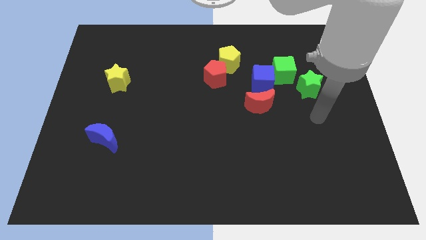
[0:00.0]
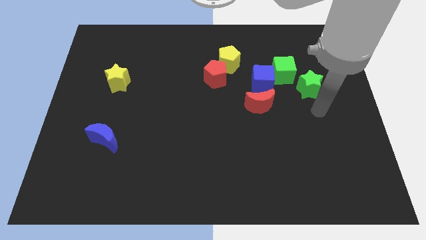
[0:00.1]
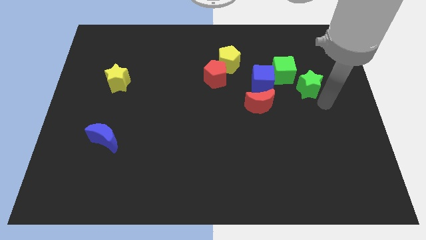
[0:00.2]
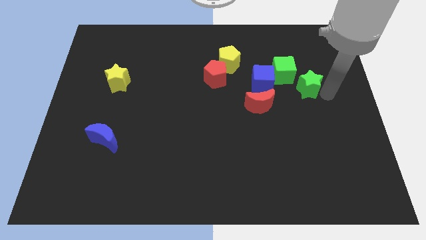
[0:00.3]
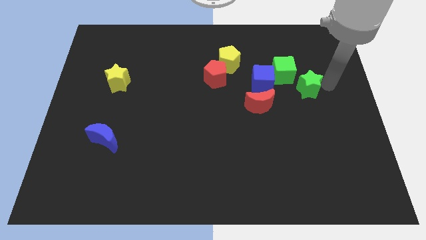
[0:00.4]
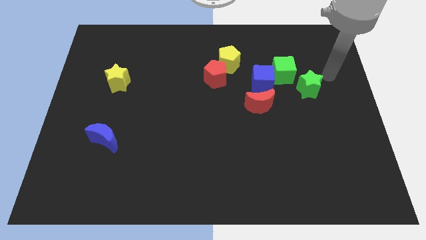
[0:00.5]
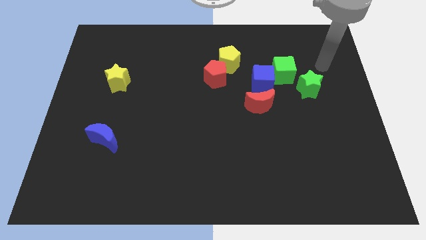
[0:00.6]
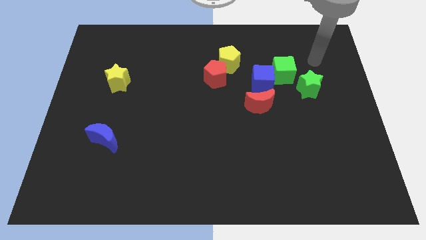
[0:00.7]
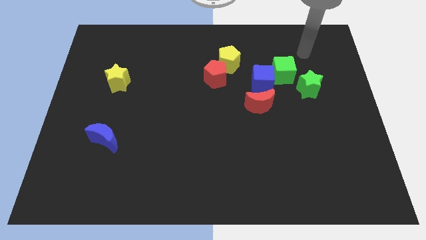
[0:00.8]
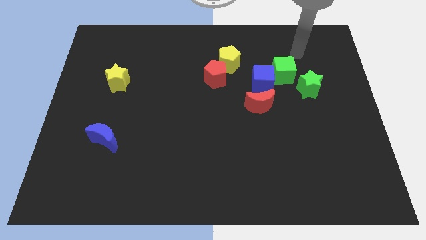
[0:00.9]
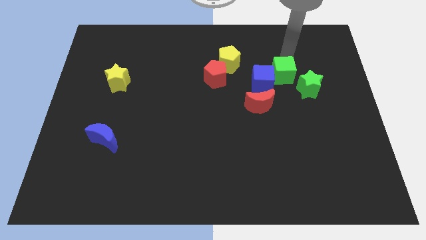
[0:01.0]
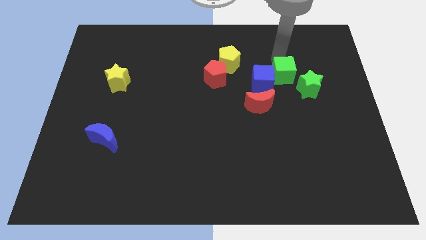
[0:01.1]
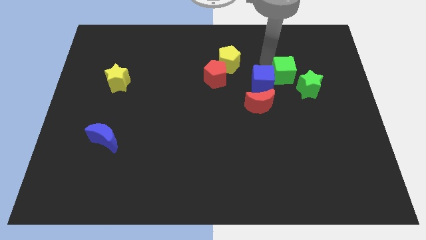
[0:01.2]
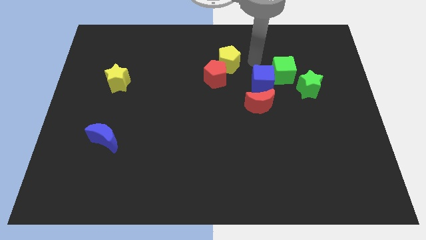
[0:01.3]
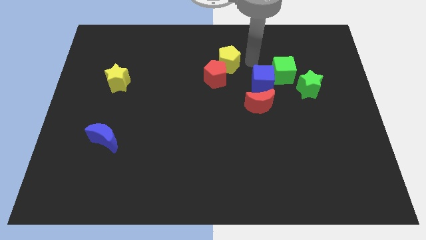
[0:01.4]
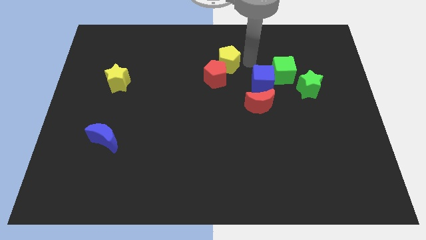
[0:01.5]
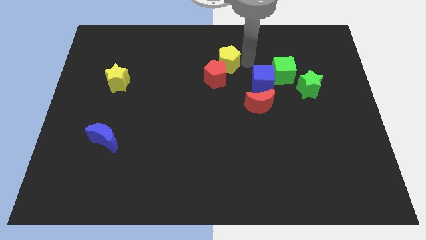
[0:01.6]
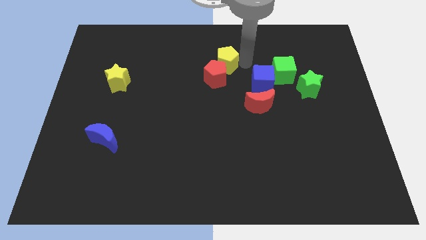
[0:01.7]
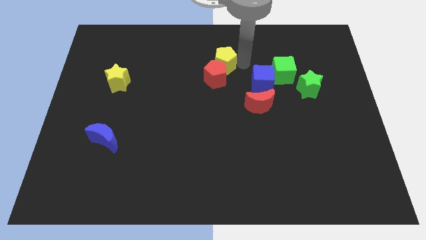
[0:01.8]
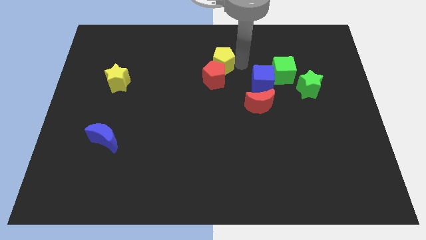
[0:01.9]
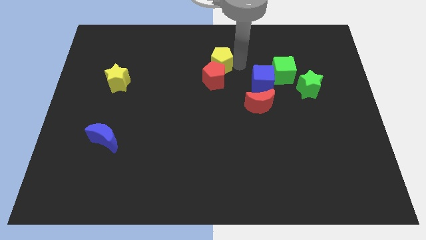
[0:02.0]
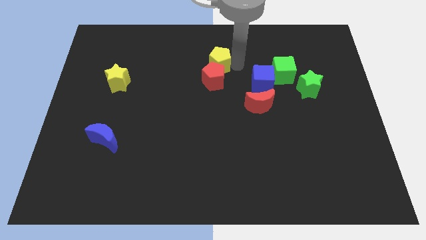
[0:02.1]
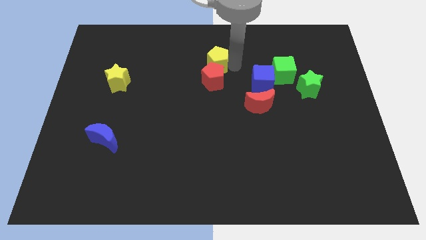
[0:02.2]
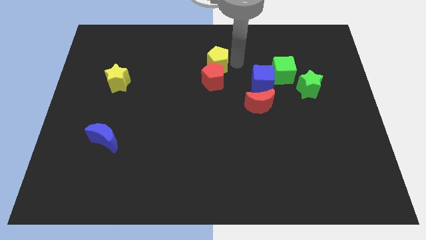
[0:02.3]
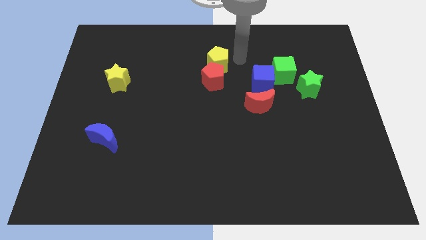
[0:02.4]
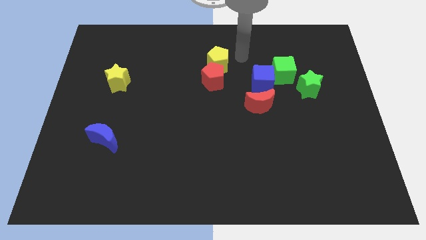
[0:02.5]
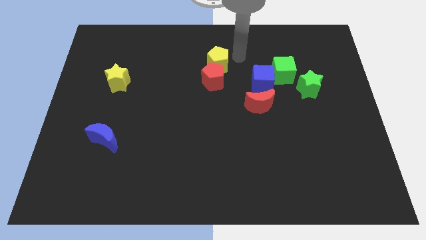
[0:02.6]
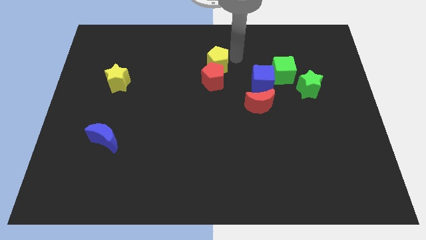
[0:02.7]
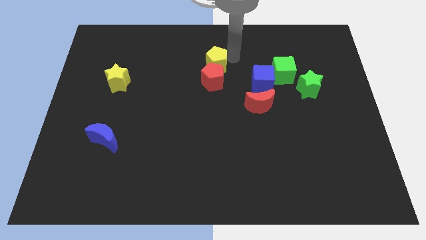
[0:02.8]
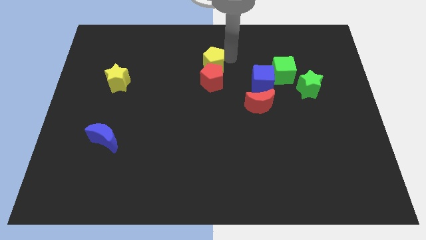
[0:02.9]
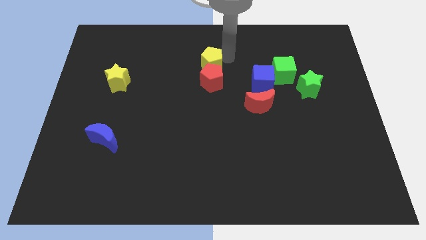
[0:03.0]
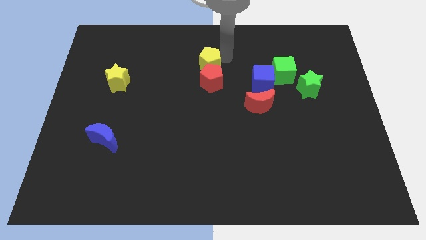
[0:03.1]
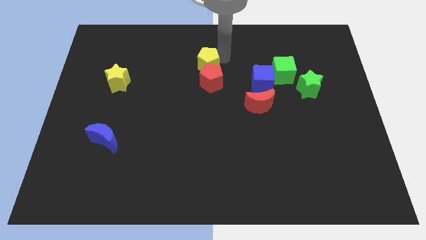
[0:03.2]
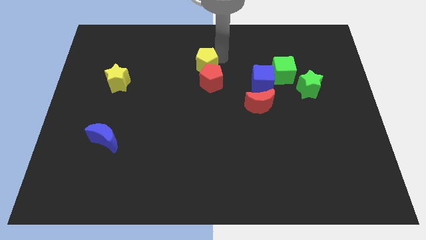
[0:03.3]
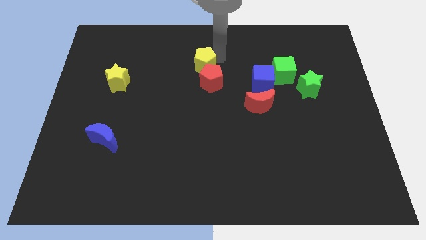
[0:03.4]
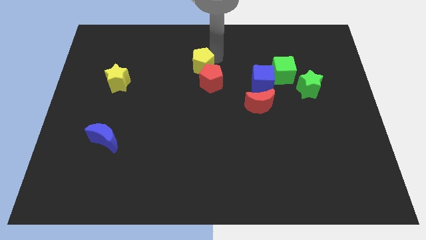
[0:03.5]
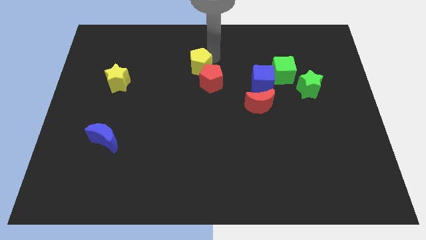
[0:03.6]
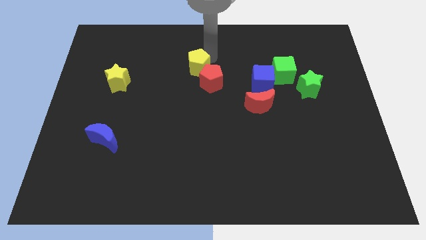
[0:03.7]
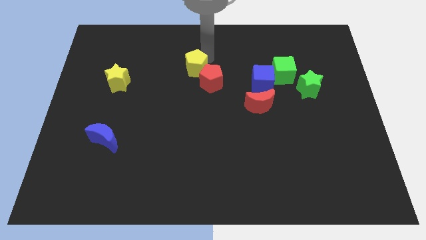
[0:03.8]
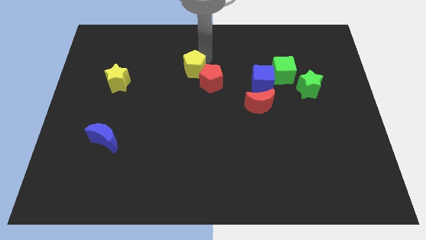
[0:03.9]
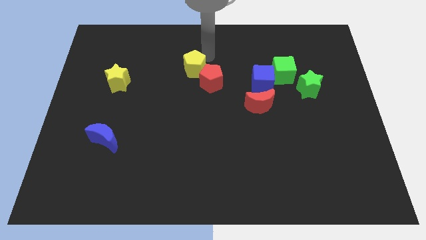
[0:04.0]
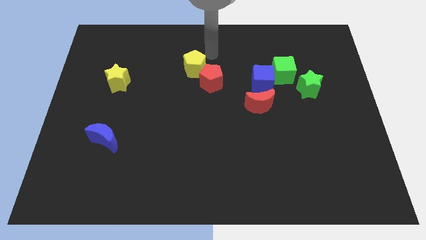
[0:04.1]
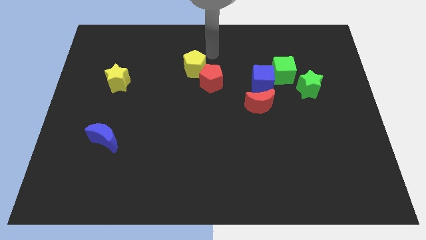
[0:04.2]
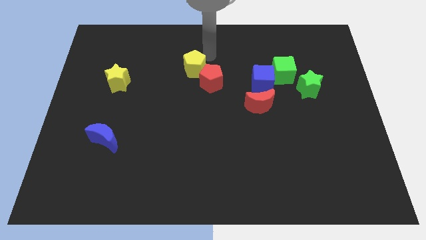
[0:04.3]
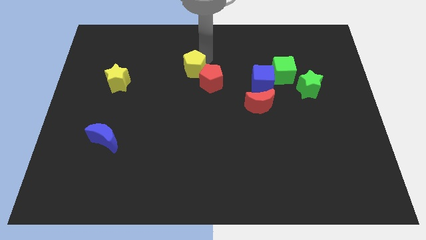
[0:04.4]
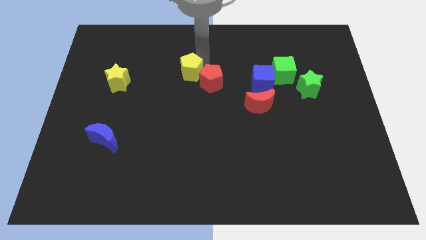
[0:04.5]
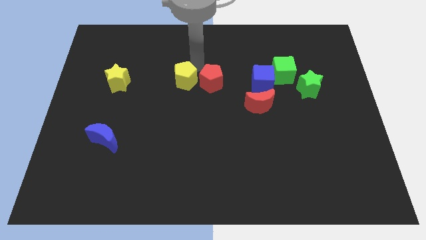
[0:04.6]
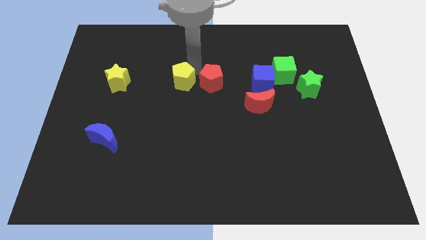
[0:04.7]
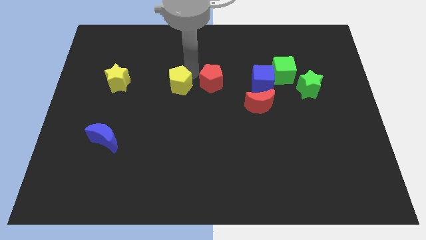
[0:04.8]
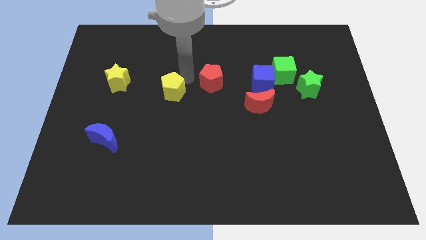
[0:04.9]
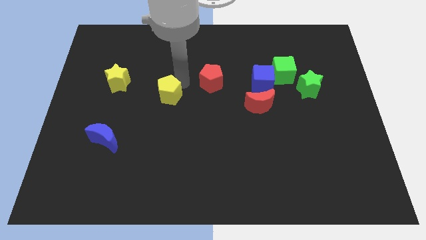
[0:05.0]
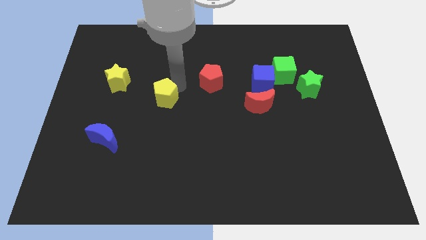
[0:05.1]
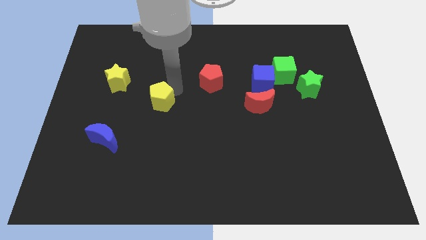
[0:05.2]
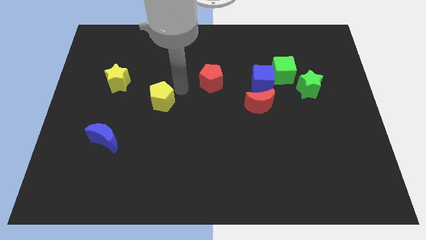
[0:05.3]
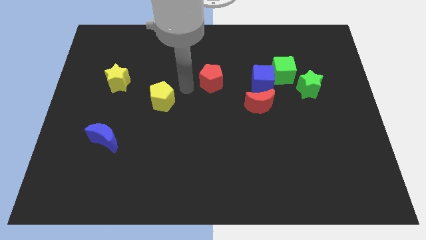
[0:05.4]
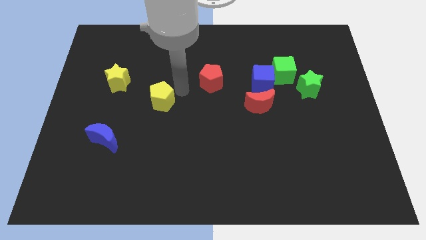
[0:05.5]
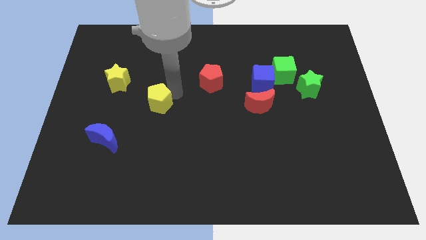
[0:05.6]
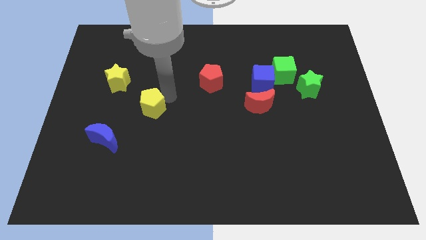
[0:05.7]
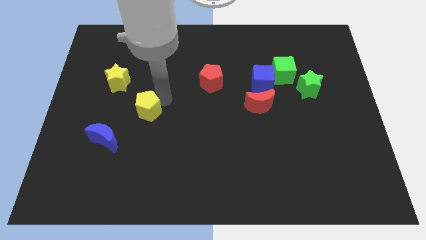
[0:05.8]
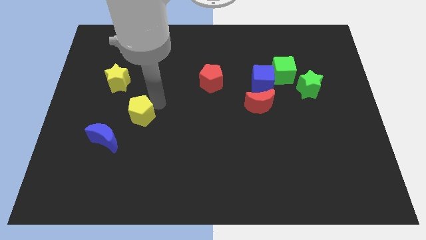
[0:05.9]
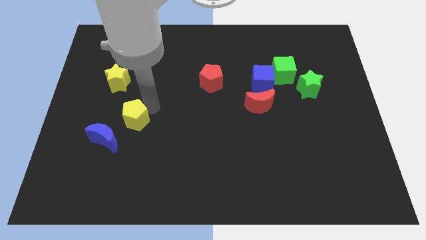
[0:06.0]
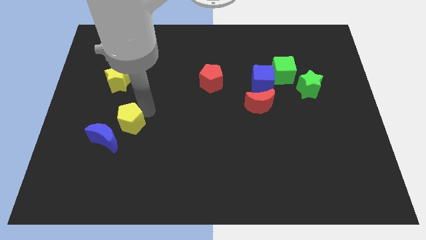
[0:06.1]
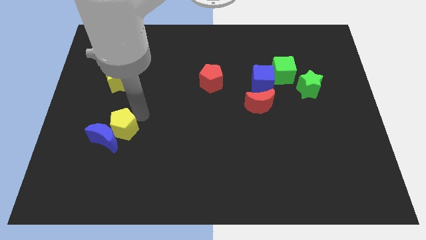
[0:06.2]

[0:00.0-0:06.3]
slide the yellow pentagon to the blue moon

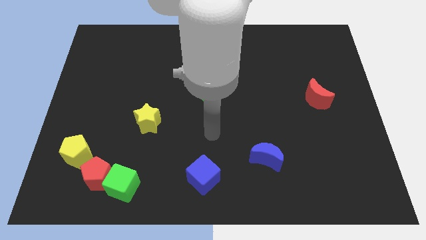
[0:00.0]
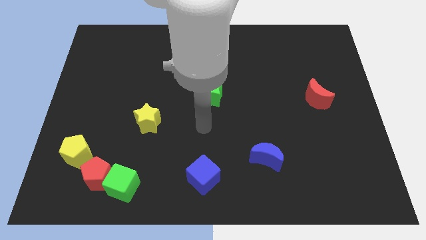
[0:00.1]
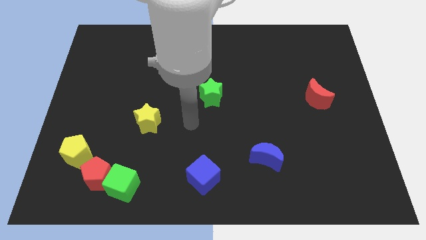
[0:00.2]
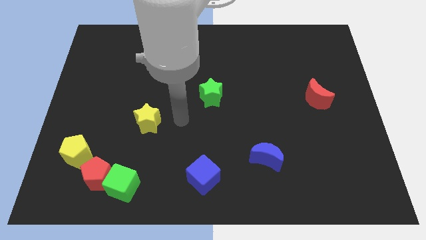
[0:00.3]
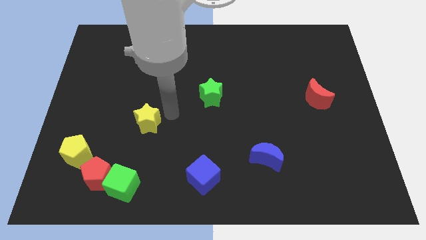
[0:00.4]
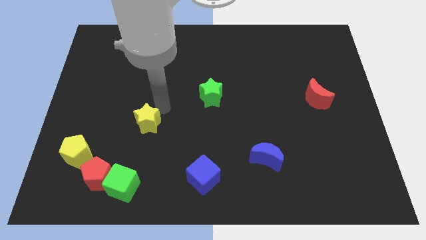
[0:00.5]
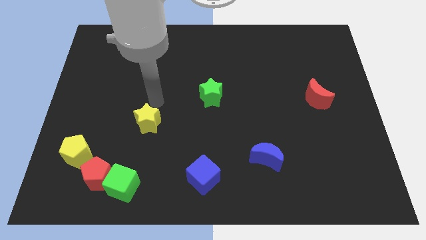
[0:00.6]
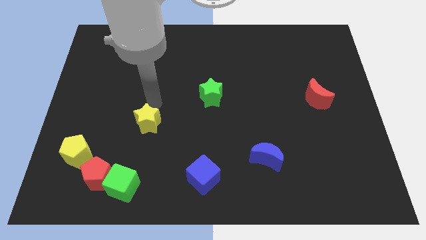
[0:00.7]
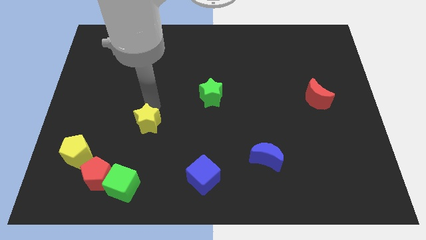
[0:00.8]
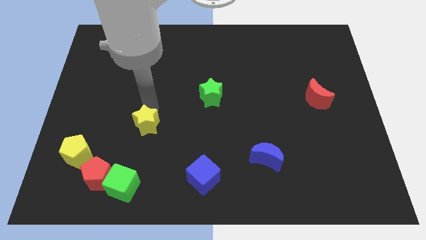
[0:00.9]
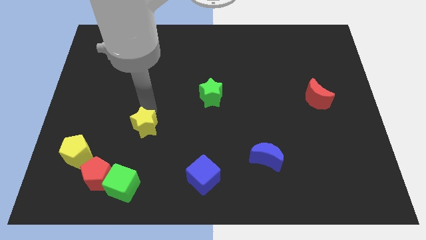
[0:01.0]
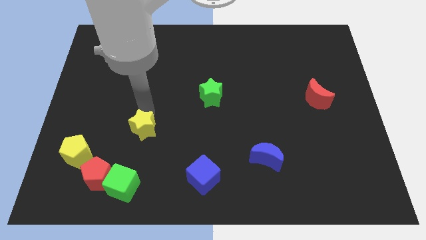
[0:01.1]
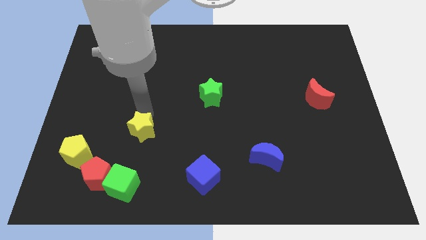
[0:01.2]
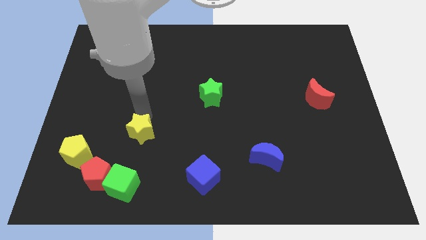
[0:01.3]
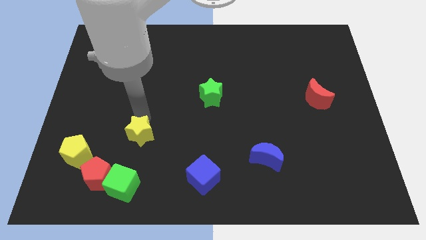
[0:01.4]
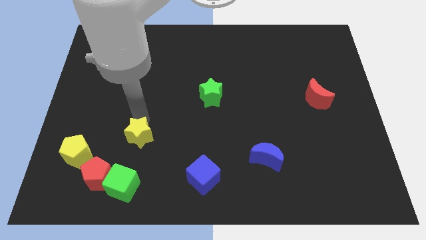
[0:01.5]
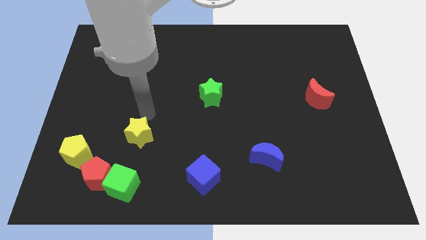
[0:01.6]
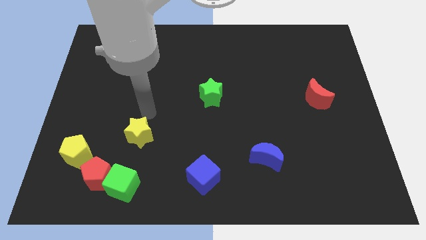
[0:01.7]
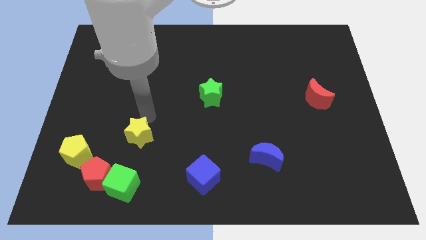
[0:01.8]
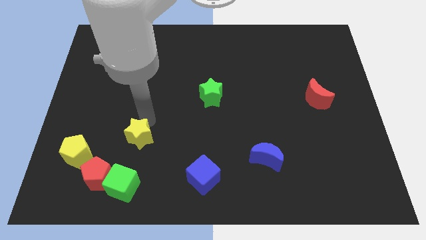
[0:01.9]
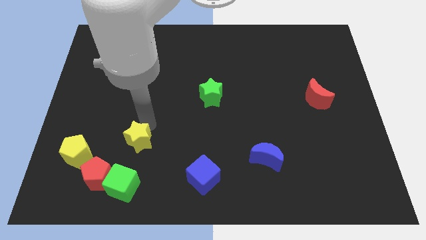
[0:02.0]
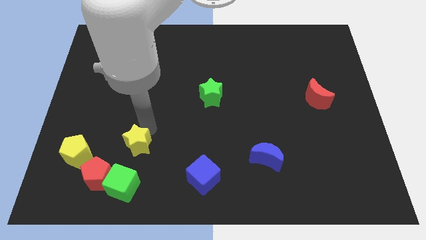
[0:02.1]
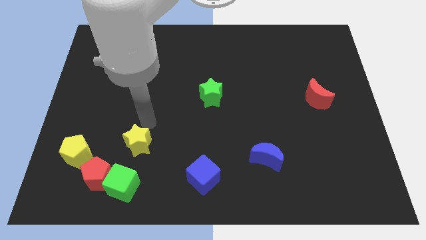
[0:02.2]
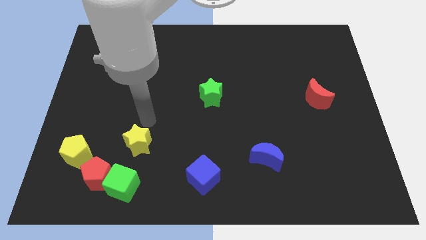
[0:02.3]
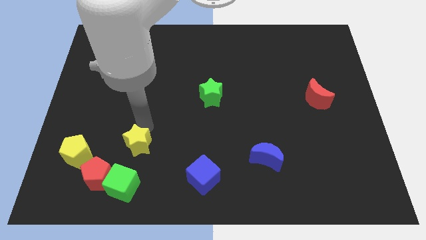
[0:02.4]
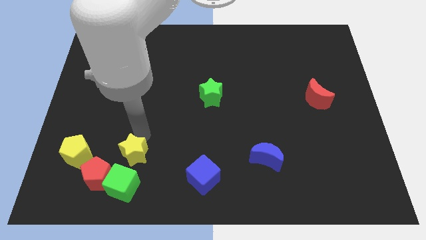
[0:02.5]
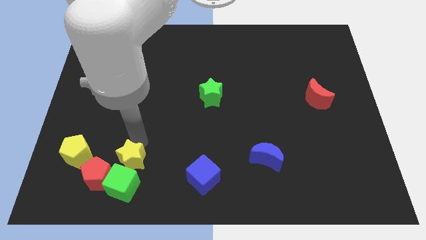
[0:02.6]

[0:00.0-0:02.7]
slide the yellow star towards the green cube
